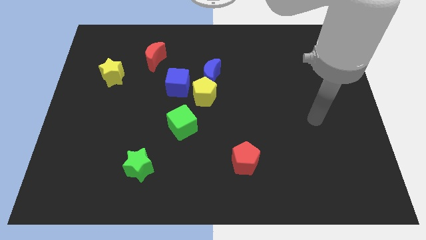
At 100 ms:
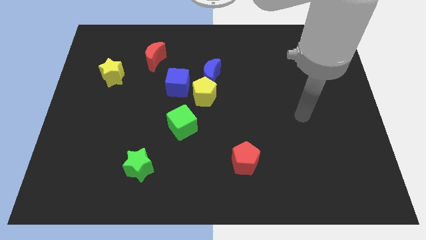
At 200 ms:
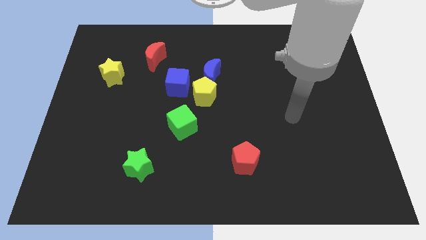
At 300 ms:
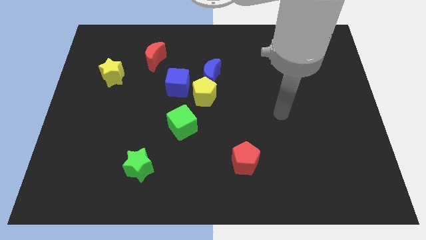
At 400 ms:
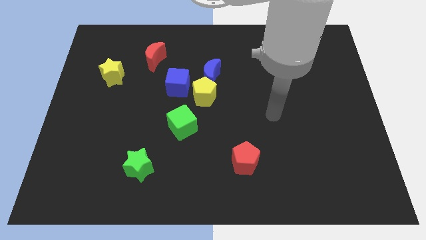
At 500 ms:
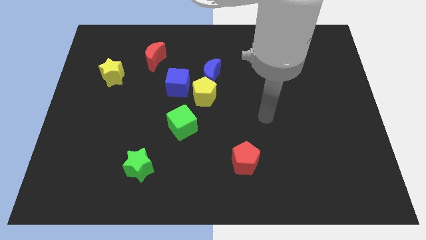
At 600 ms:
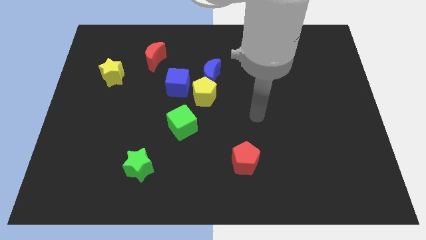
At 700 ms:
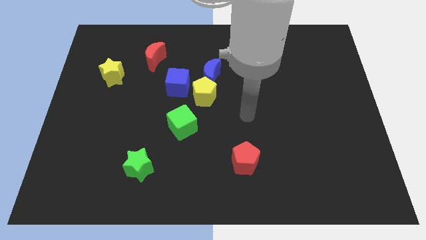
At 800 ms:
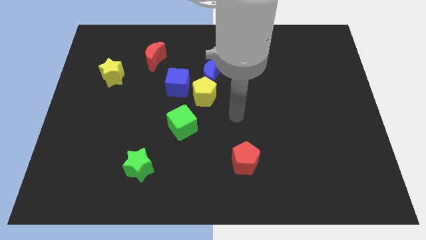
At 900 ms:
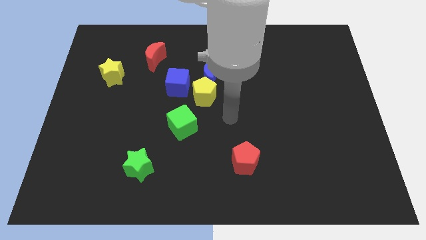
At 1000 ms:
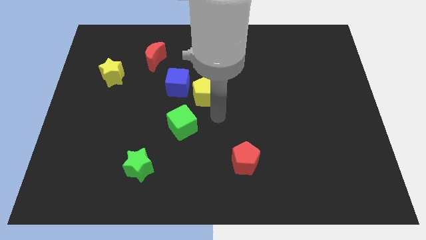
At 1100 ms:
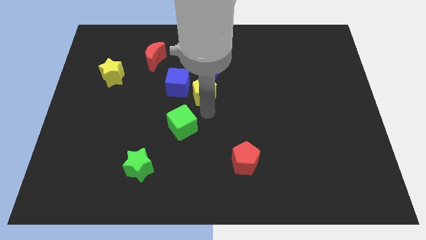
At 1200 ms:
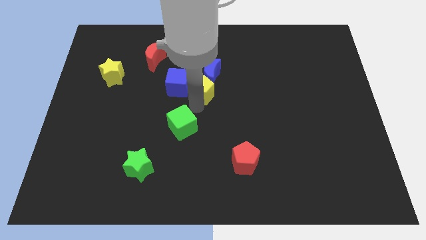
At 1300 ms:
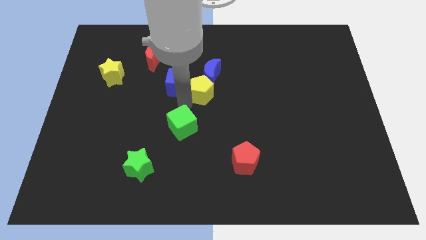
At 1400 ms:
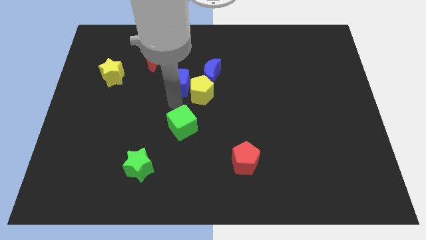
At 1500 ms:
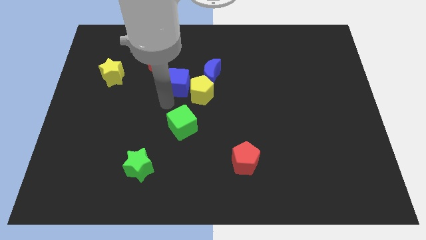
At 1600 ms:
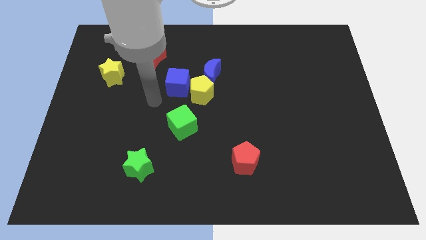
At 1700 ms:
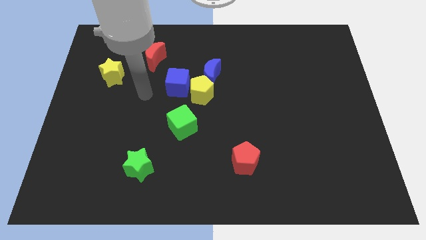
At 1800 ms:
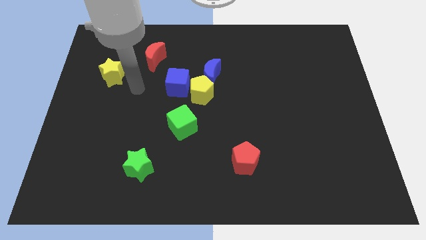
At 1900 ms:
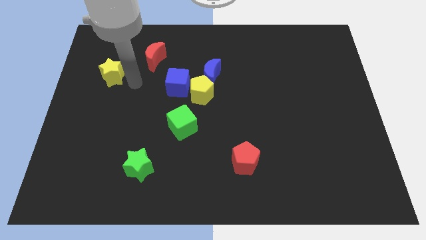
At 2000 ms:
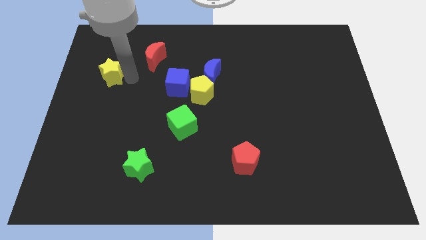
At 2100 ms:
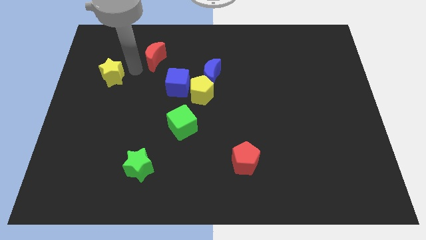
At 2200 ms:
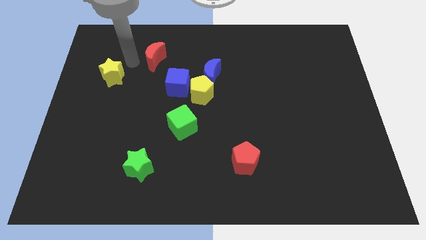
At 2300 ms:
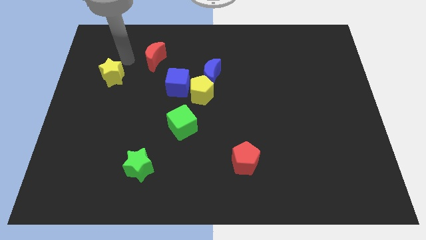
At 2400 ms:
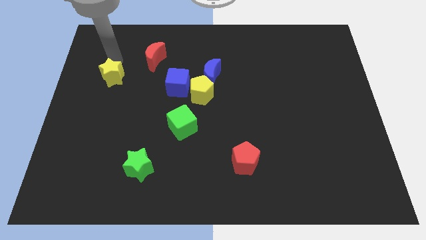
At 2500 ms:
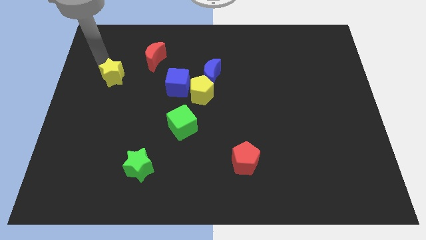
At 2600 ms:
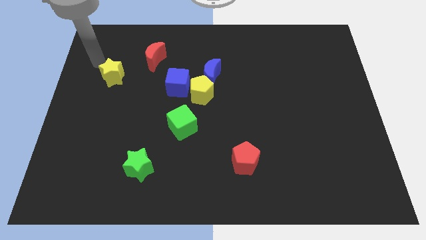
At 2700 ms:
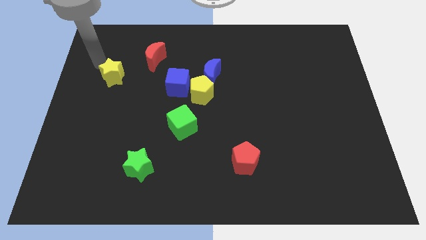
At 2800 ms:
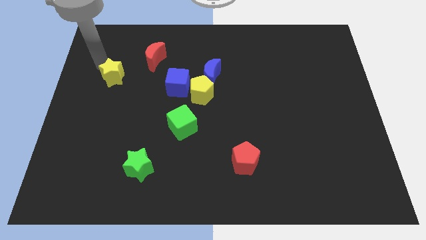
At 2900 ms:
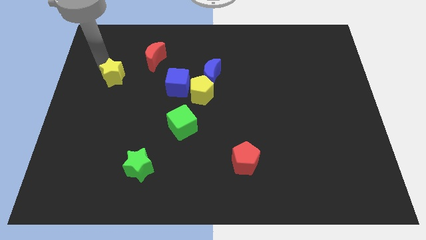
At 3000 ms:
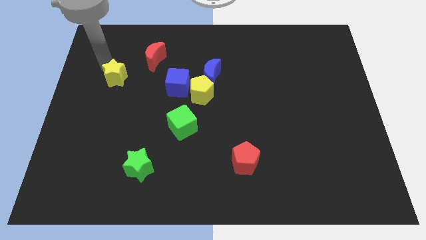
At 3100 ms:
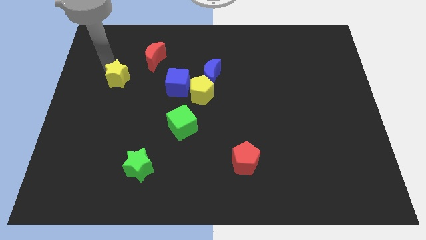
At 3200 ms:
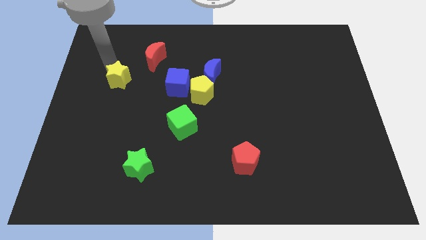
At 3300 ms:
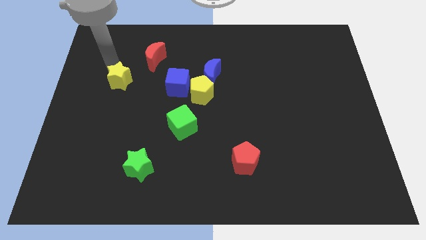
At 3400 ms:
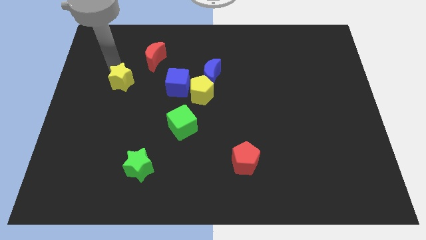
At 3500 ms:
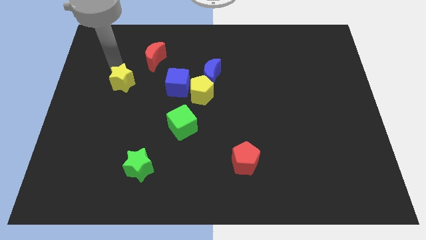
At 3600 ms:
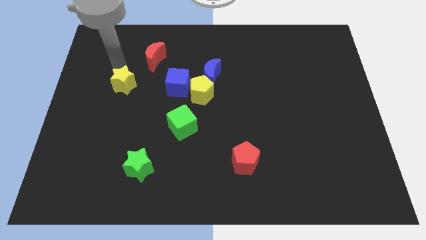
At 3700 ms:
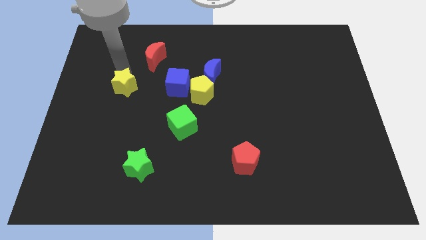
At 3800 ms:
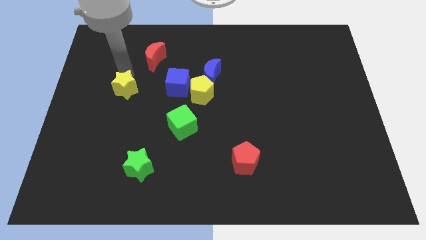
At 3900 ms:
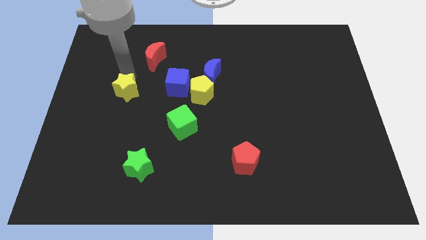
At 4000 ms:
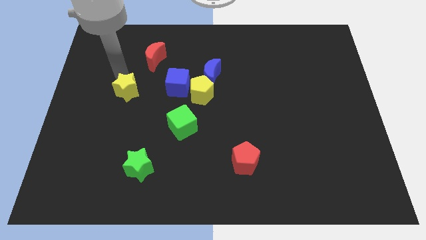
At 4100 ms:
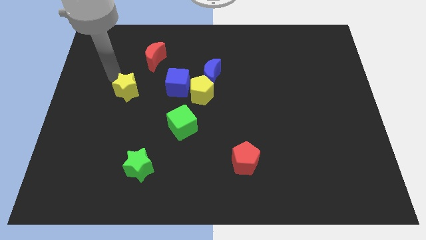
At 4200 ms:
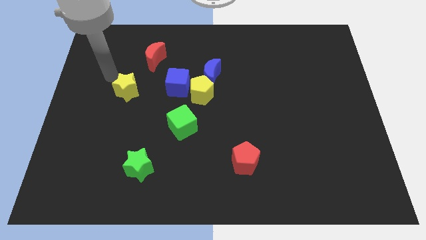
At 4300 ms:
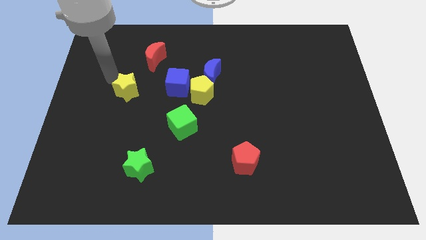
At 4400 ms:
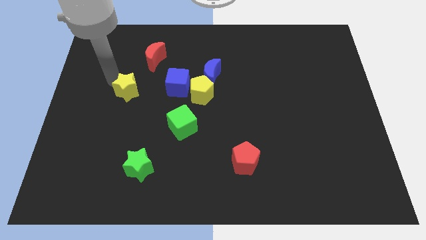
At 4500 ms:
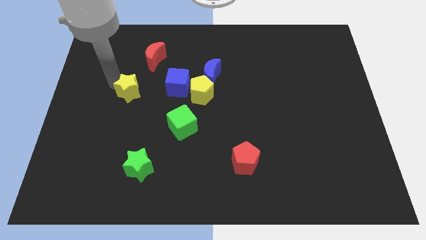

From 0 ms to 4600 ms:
push the yellow star diagonally down and to the right a little bit

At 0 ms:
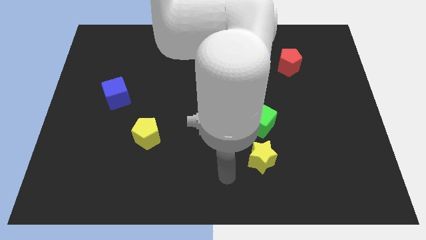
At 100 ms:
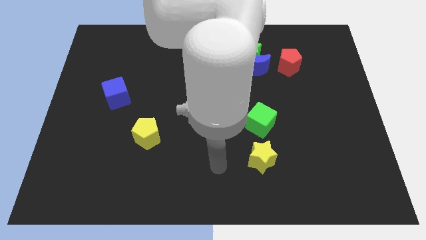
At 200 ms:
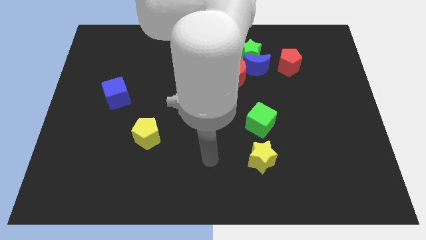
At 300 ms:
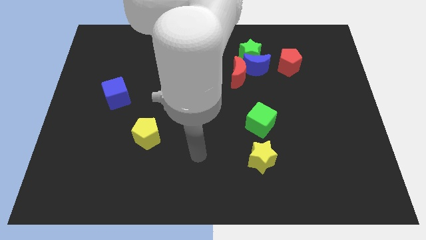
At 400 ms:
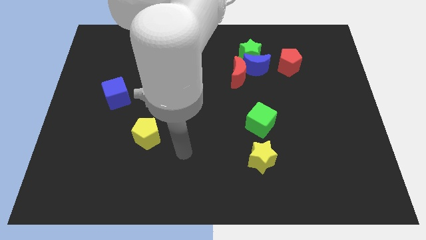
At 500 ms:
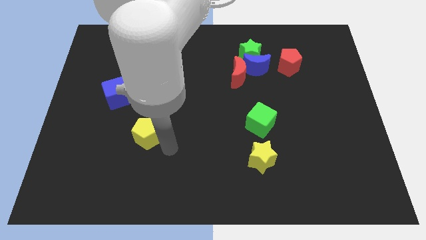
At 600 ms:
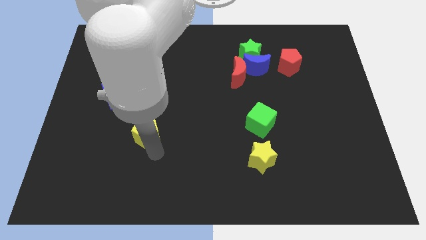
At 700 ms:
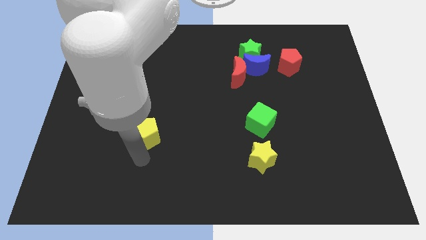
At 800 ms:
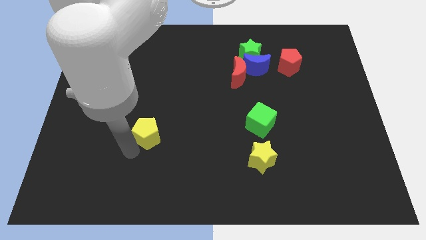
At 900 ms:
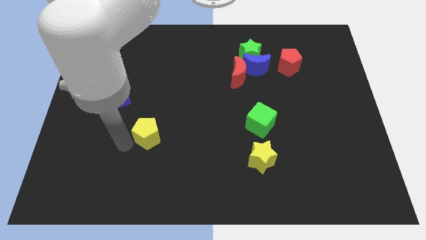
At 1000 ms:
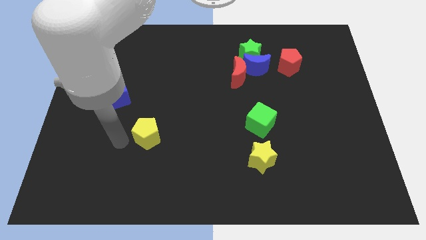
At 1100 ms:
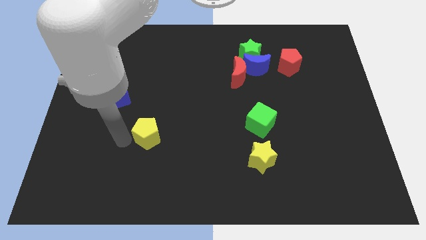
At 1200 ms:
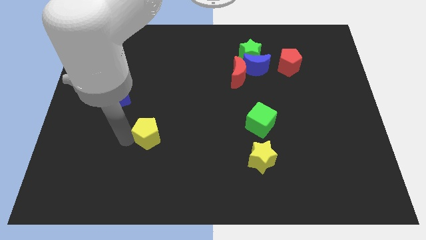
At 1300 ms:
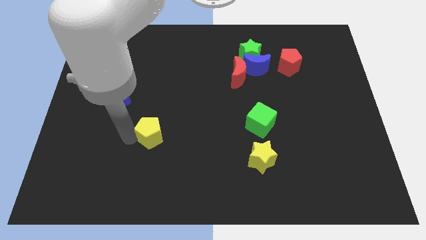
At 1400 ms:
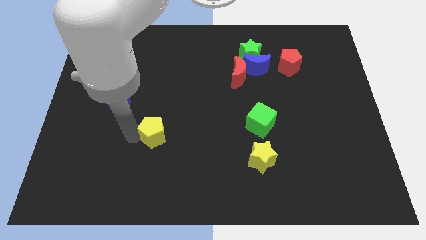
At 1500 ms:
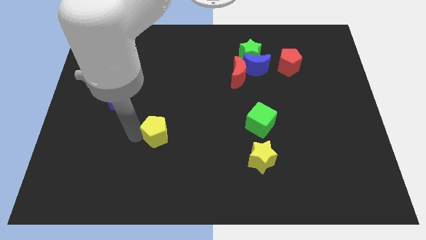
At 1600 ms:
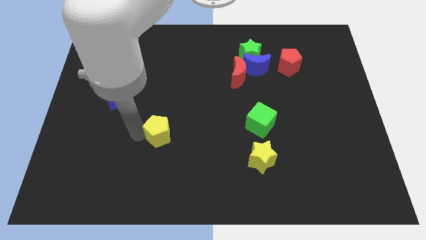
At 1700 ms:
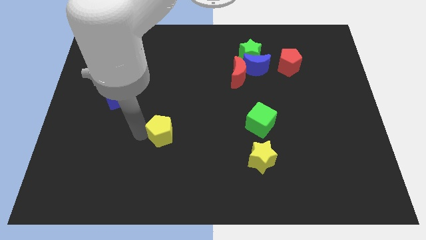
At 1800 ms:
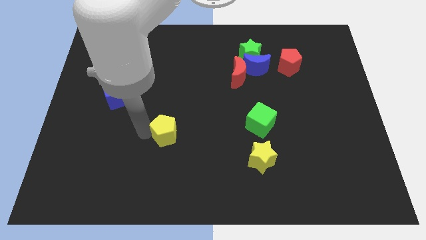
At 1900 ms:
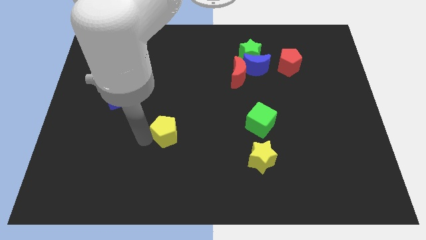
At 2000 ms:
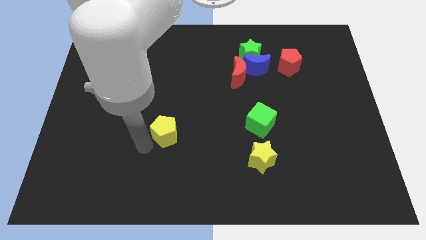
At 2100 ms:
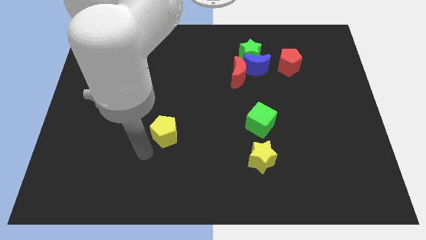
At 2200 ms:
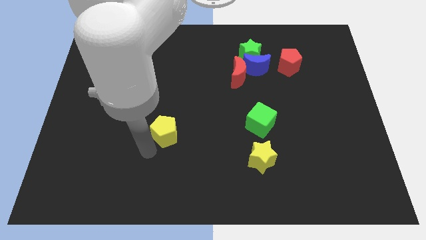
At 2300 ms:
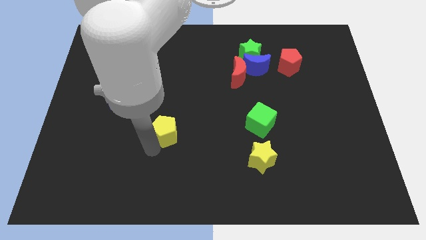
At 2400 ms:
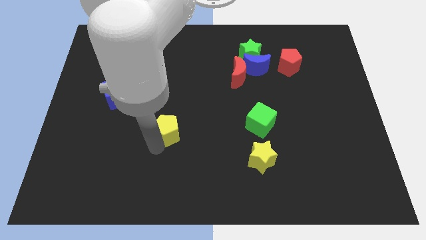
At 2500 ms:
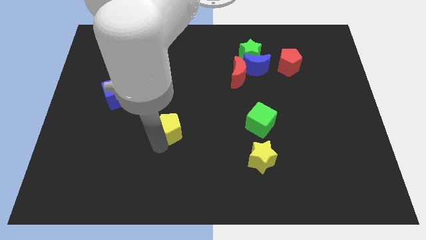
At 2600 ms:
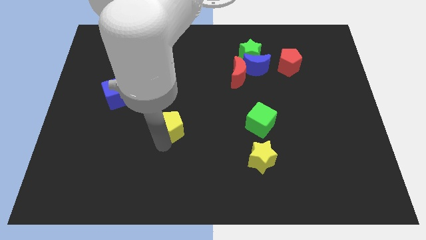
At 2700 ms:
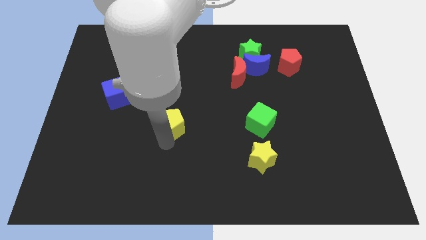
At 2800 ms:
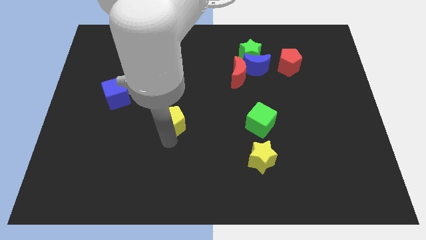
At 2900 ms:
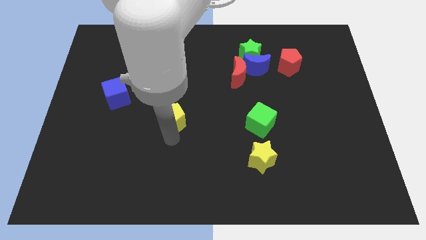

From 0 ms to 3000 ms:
slightly slide the yellow pentagon upwards and right diagonally
